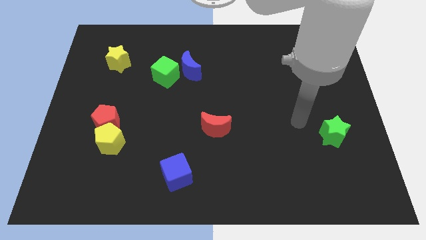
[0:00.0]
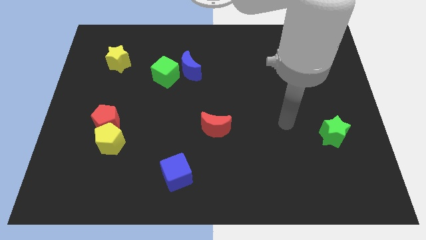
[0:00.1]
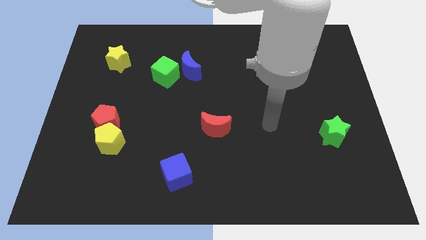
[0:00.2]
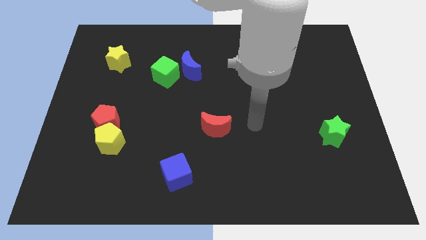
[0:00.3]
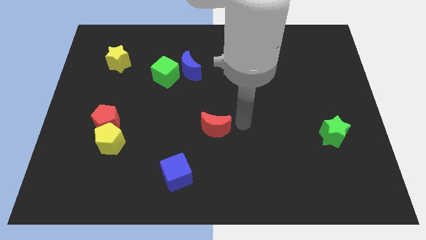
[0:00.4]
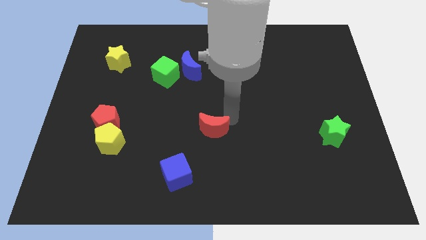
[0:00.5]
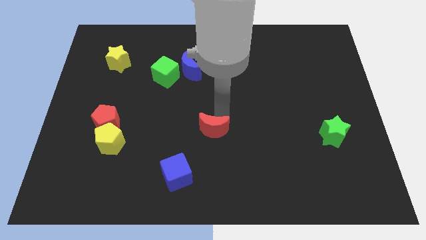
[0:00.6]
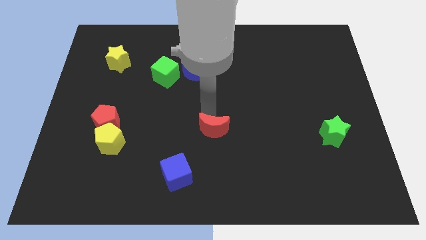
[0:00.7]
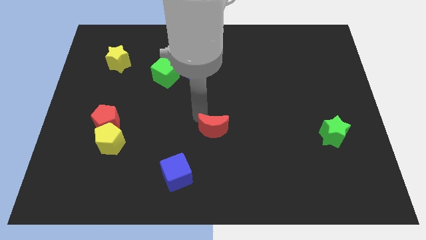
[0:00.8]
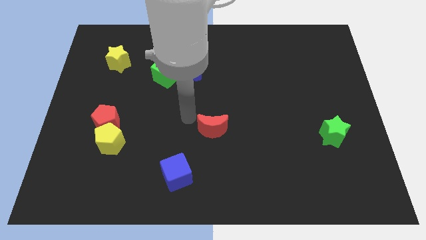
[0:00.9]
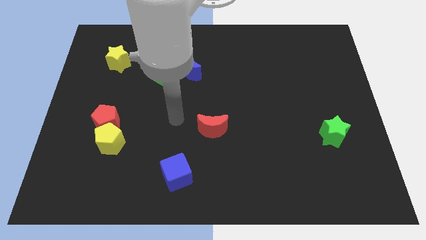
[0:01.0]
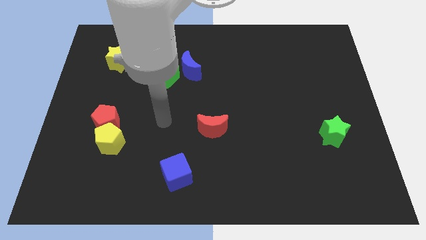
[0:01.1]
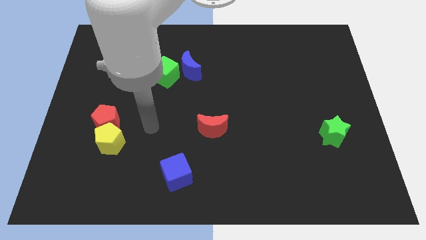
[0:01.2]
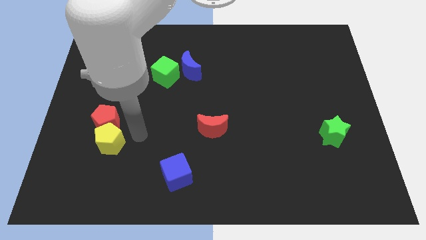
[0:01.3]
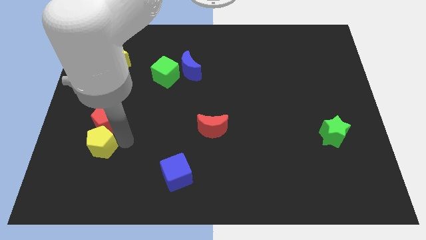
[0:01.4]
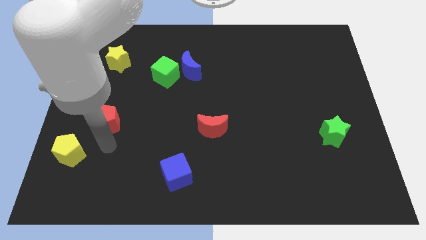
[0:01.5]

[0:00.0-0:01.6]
separate the red pentagon from the yellow pentagon

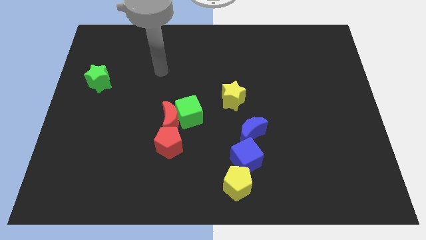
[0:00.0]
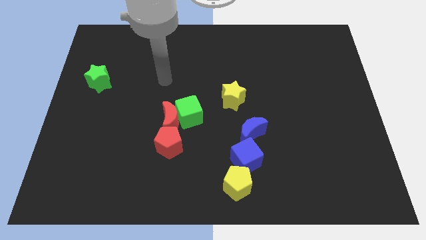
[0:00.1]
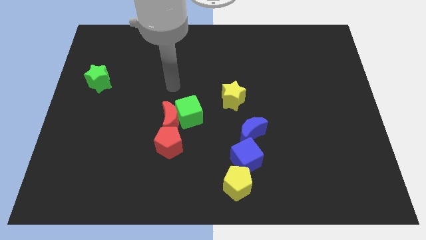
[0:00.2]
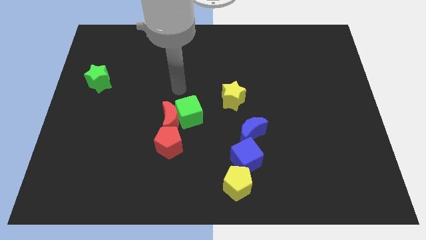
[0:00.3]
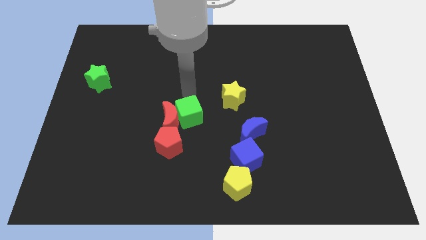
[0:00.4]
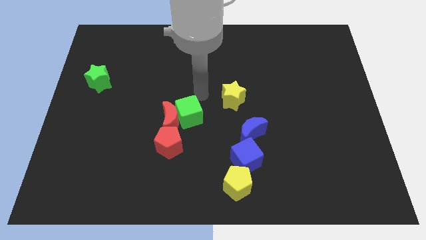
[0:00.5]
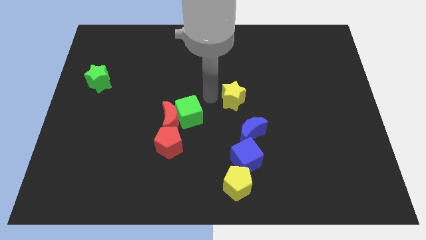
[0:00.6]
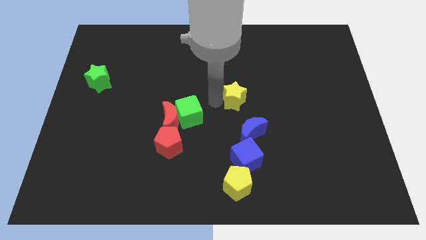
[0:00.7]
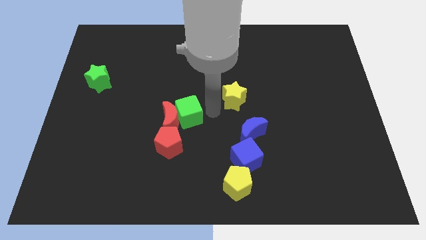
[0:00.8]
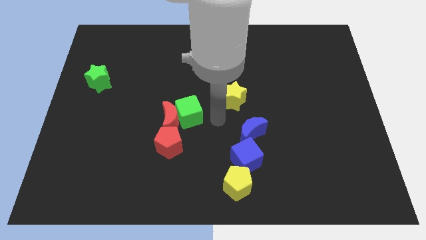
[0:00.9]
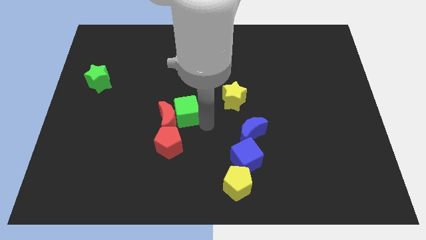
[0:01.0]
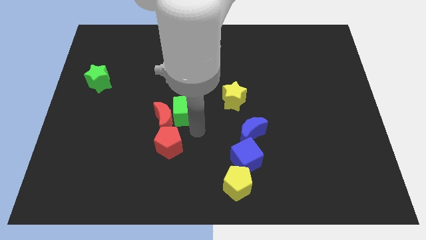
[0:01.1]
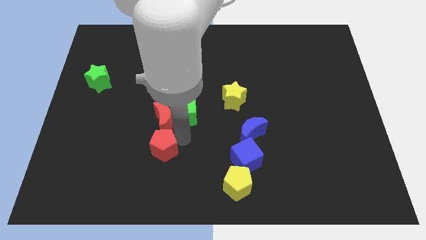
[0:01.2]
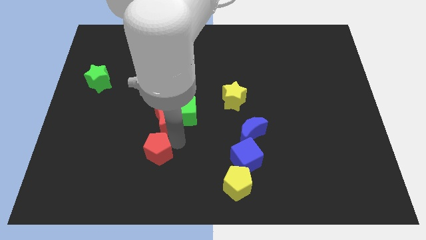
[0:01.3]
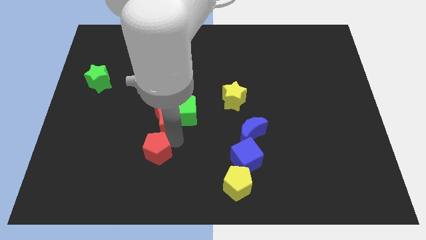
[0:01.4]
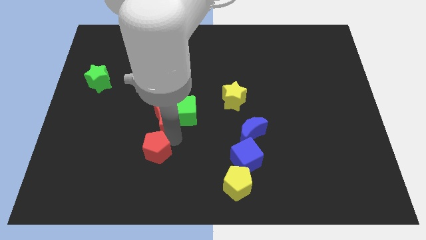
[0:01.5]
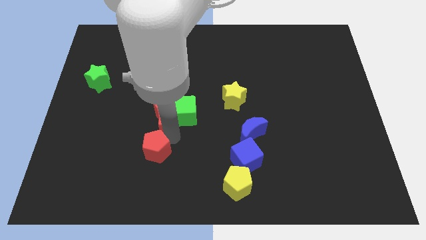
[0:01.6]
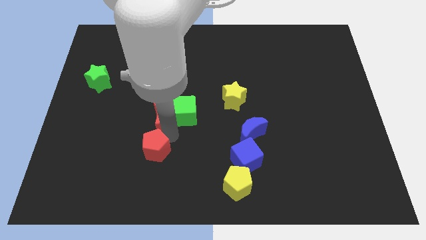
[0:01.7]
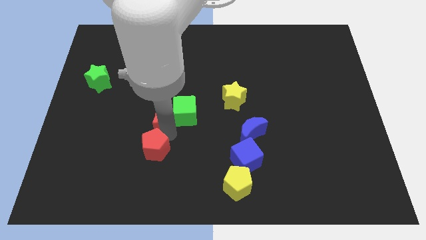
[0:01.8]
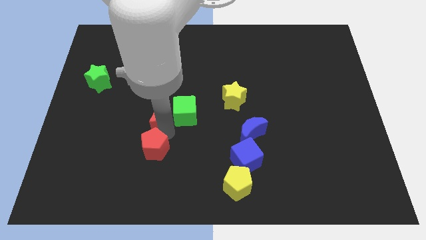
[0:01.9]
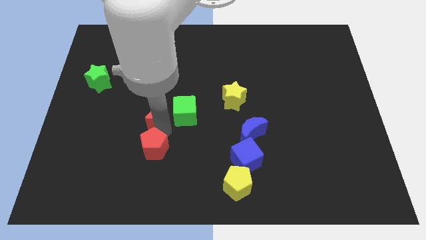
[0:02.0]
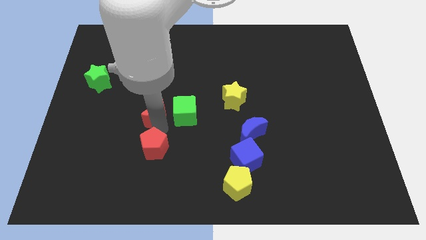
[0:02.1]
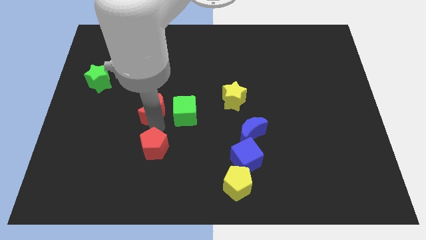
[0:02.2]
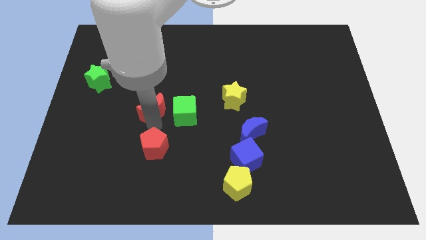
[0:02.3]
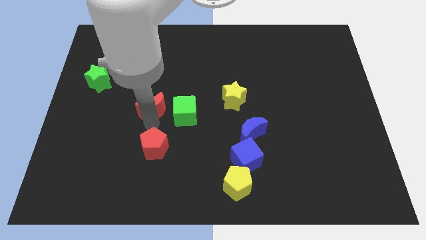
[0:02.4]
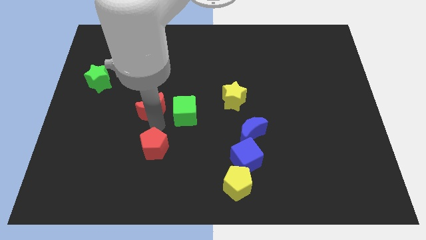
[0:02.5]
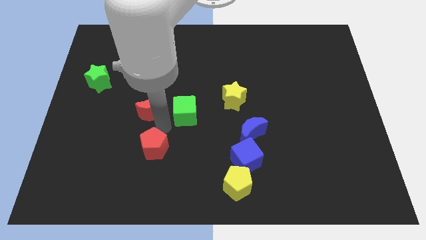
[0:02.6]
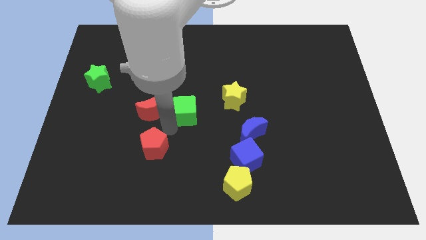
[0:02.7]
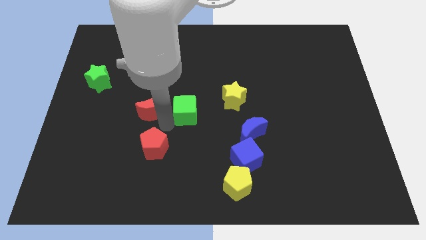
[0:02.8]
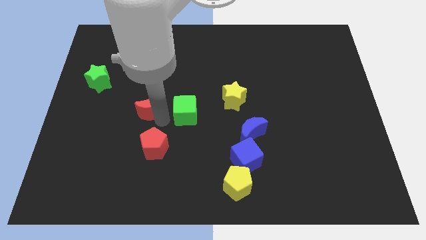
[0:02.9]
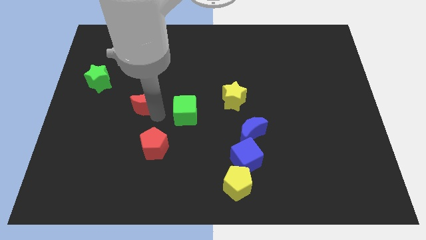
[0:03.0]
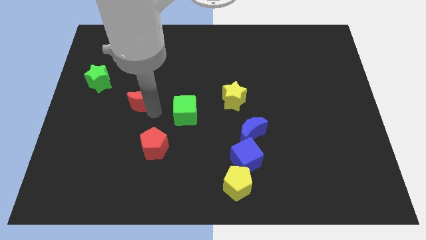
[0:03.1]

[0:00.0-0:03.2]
pull the red moon apart from the green cube and red pentagon

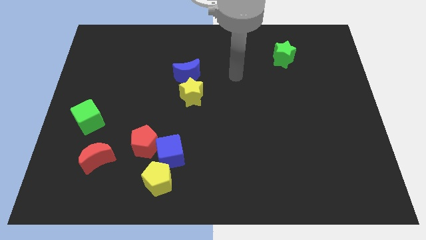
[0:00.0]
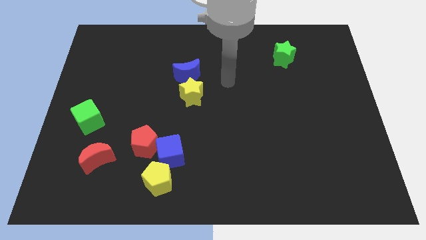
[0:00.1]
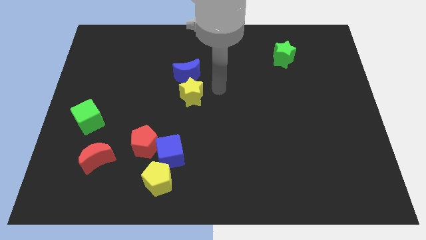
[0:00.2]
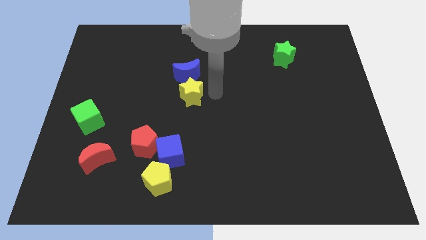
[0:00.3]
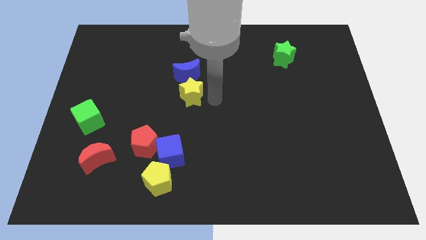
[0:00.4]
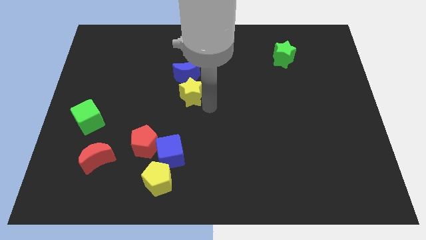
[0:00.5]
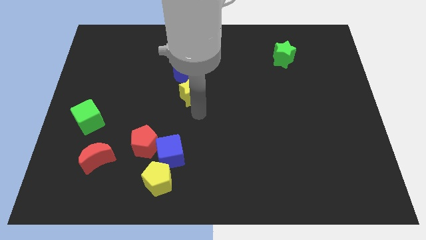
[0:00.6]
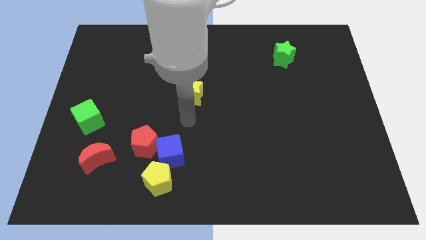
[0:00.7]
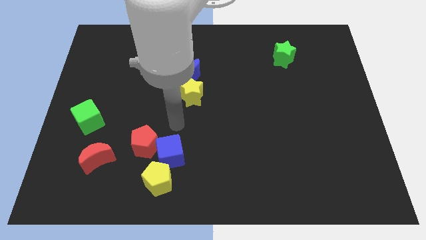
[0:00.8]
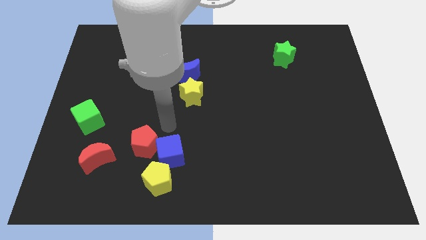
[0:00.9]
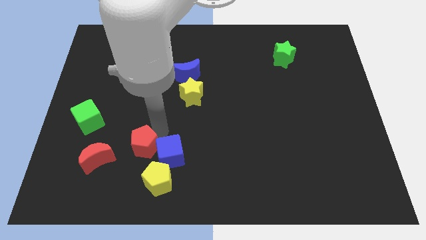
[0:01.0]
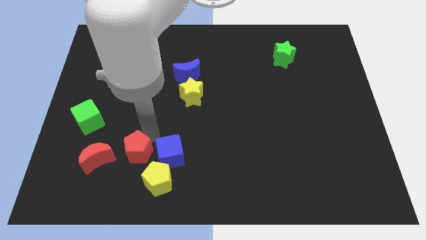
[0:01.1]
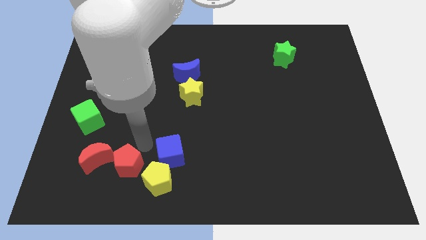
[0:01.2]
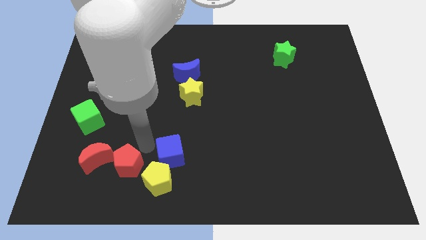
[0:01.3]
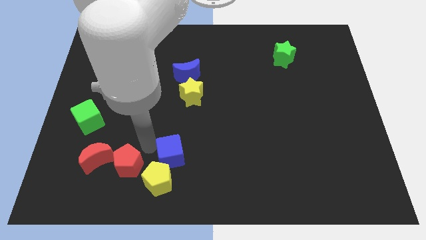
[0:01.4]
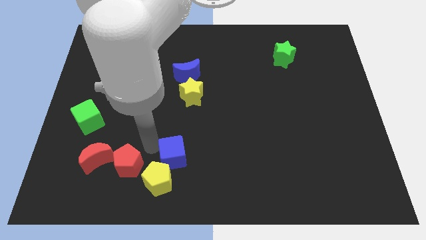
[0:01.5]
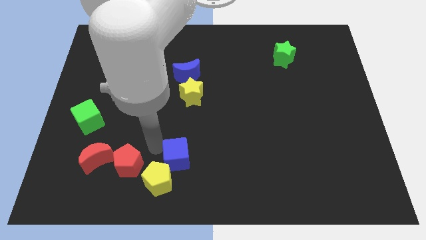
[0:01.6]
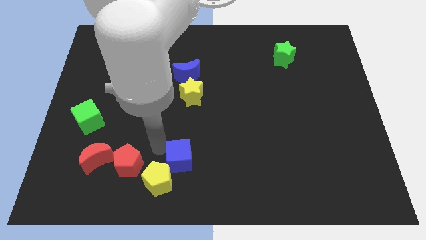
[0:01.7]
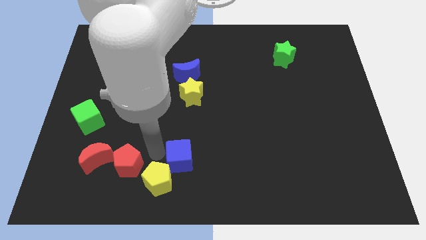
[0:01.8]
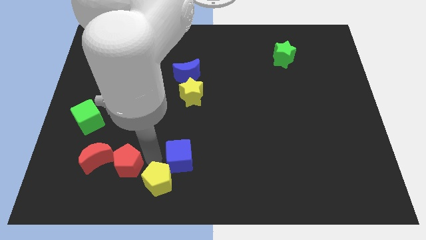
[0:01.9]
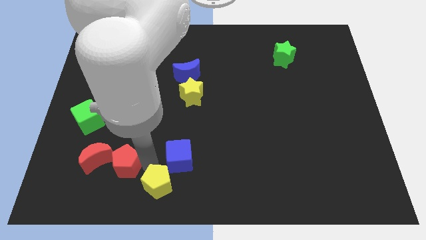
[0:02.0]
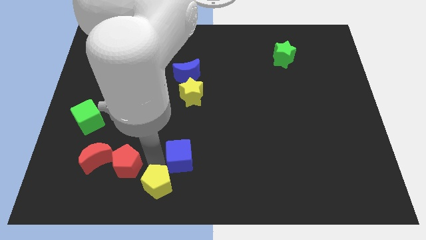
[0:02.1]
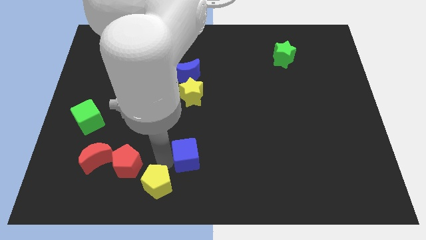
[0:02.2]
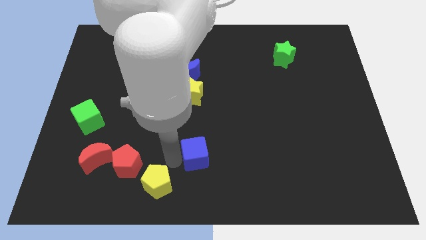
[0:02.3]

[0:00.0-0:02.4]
separate the blue cube from the red pentagon and yellow pentagon

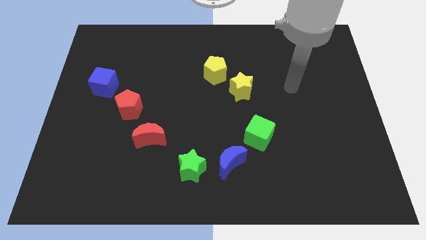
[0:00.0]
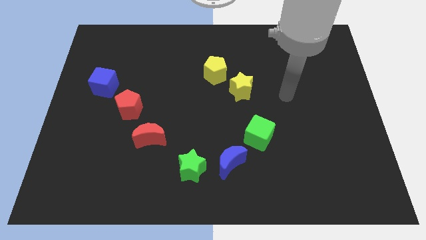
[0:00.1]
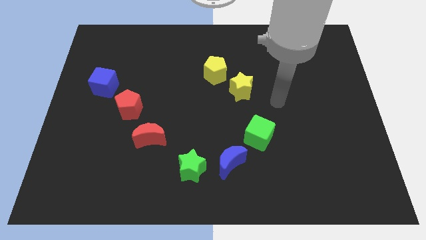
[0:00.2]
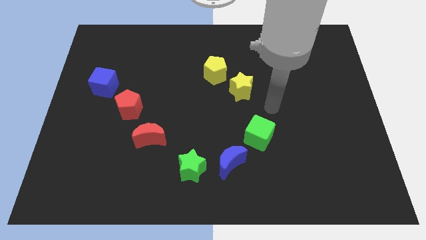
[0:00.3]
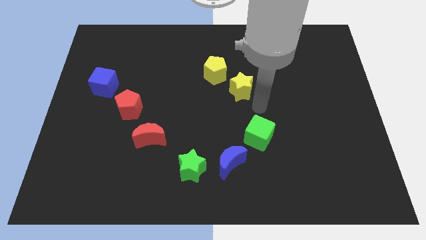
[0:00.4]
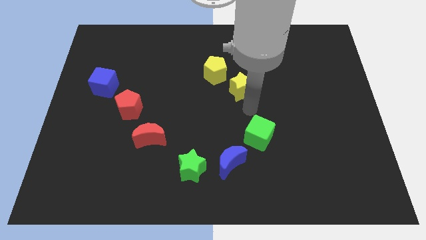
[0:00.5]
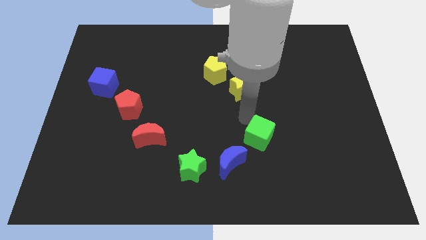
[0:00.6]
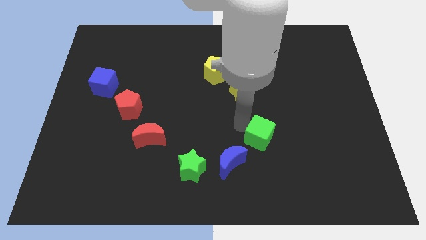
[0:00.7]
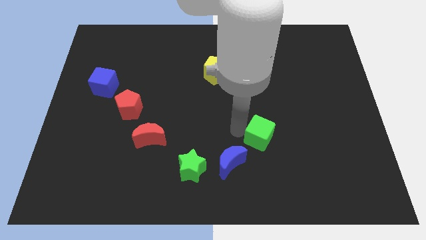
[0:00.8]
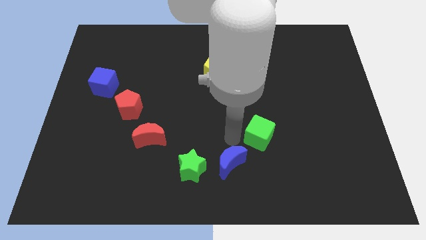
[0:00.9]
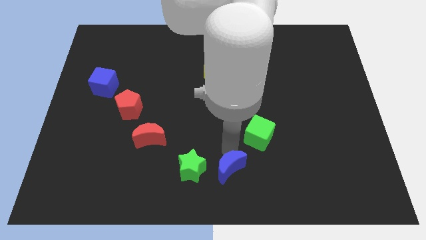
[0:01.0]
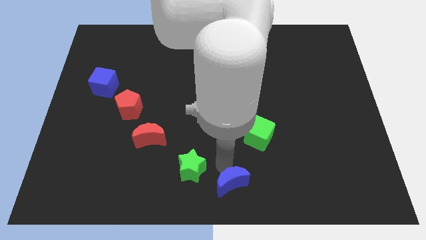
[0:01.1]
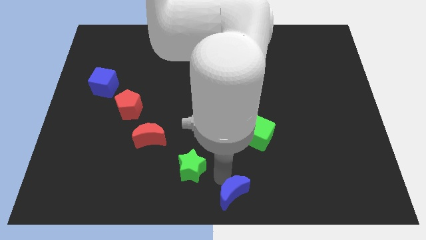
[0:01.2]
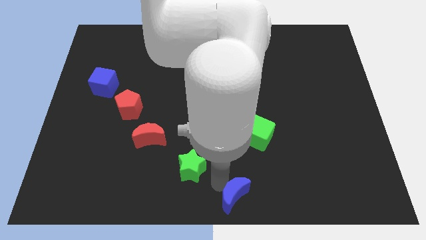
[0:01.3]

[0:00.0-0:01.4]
move the green star away from the blue moon

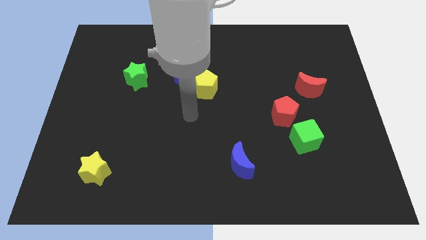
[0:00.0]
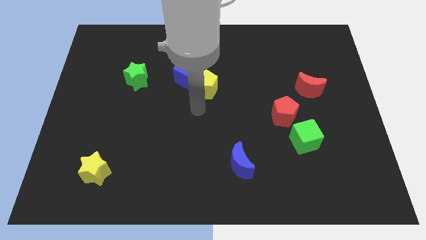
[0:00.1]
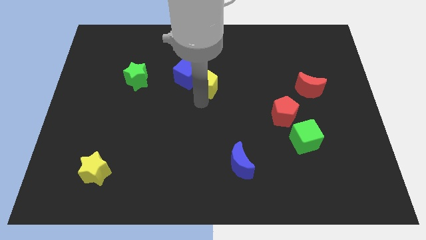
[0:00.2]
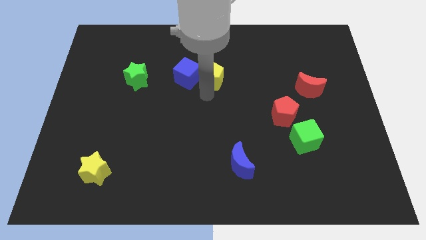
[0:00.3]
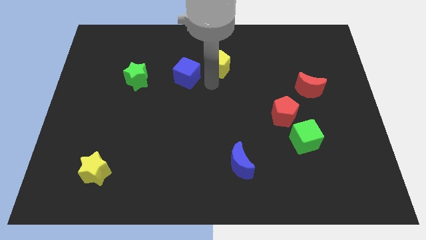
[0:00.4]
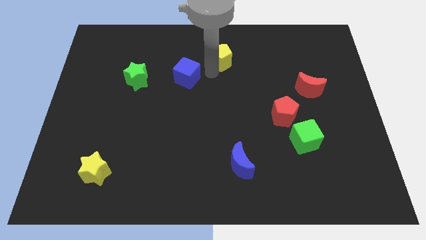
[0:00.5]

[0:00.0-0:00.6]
pull the blue cube apart from the yellow pentagon
